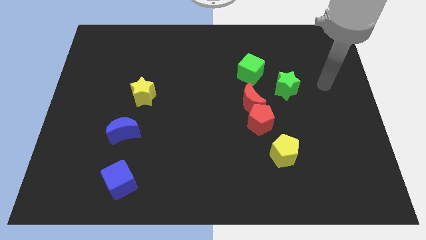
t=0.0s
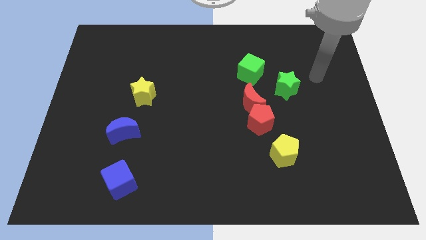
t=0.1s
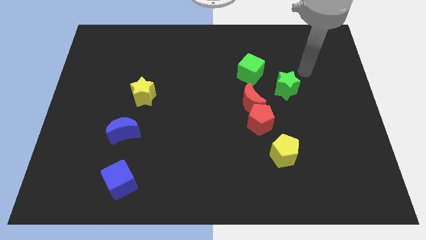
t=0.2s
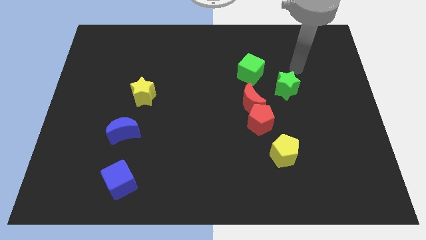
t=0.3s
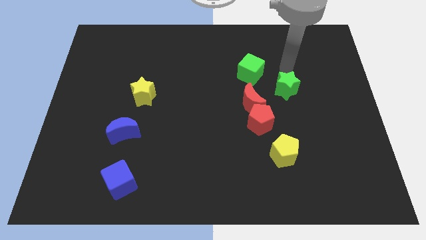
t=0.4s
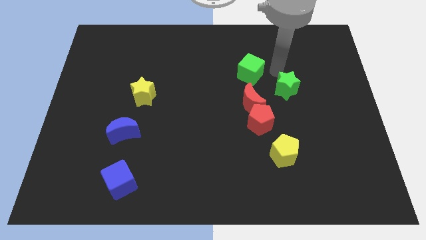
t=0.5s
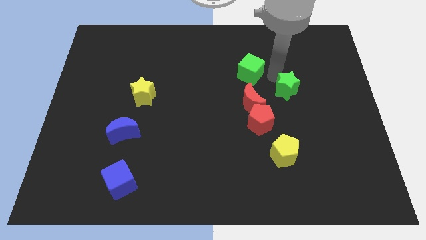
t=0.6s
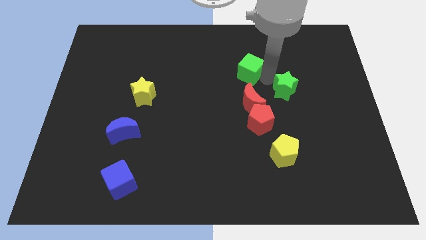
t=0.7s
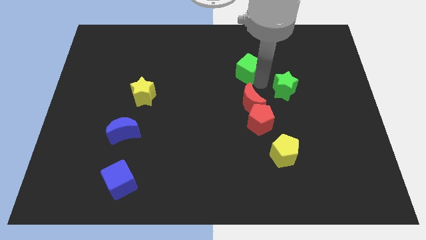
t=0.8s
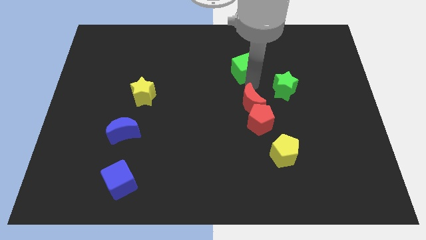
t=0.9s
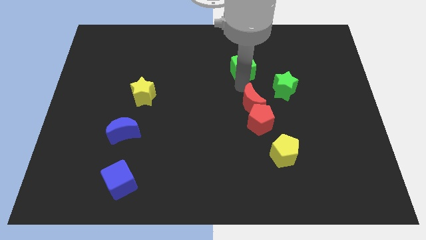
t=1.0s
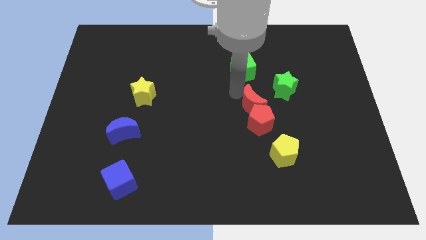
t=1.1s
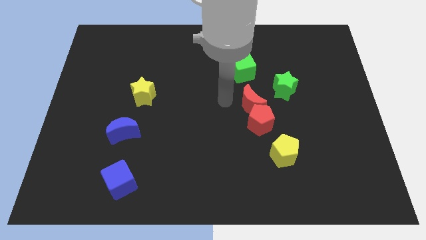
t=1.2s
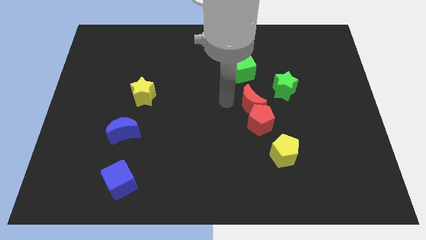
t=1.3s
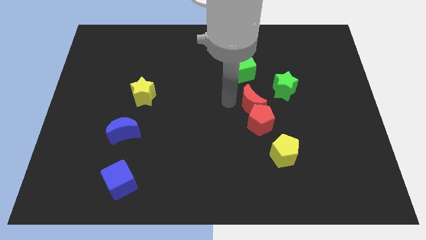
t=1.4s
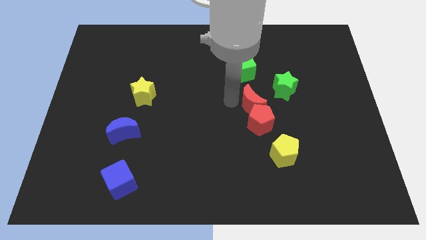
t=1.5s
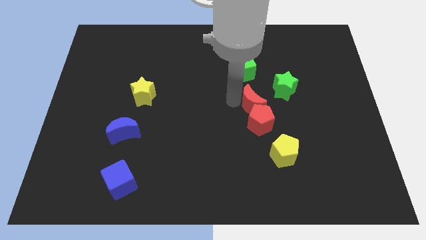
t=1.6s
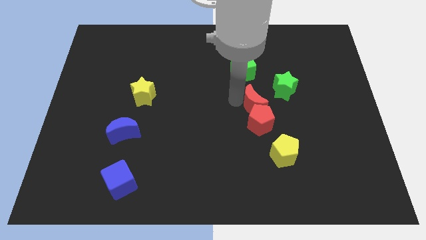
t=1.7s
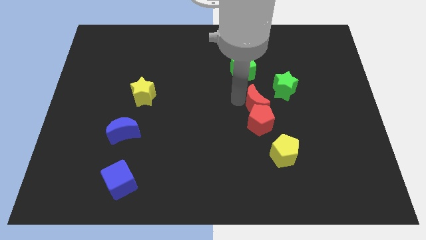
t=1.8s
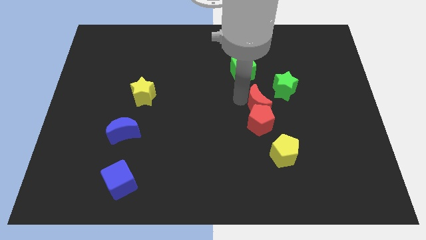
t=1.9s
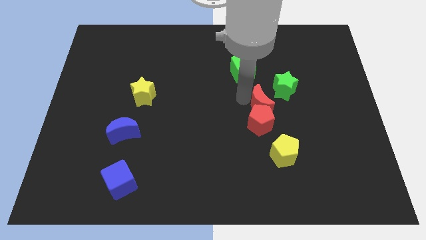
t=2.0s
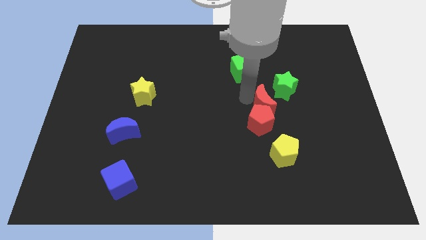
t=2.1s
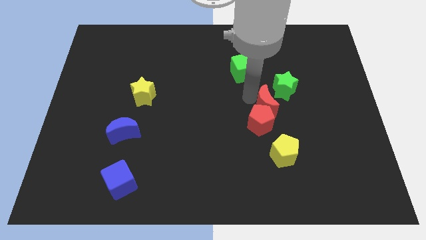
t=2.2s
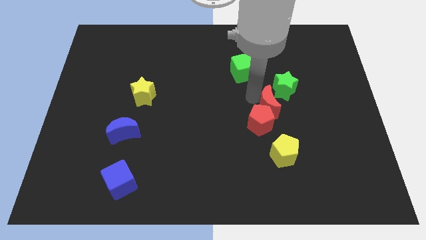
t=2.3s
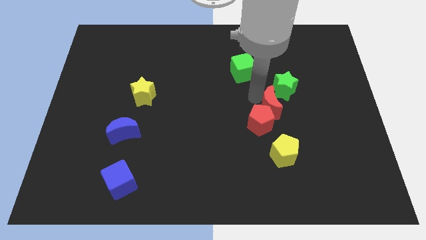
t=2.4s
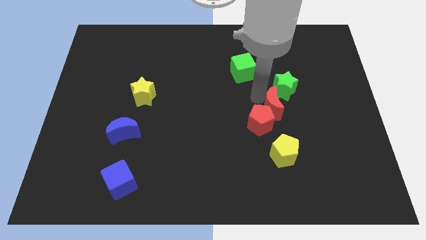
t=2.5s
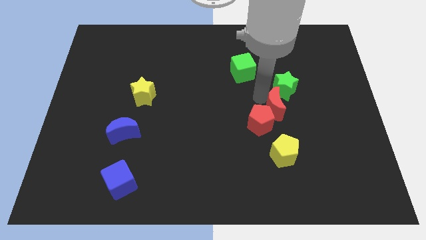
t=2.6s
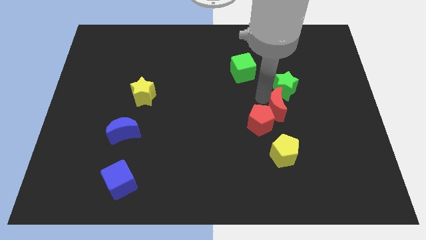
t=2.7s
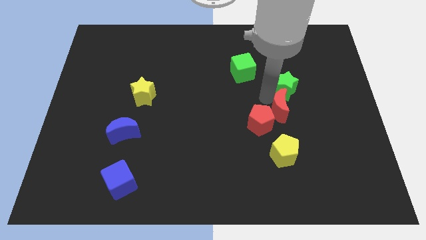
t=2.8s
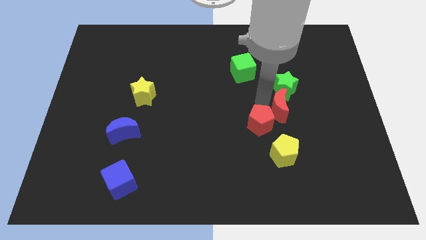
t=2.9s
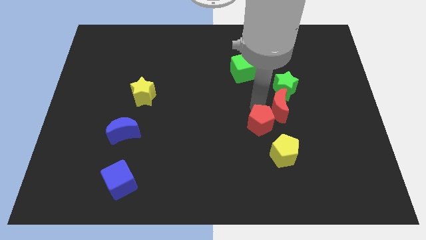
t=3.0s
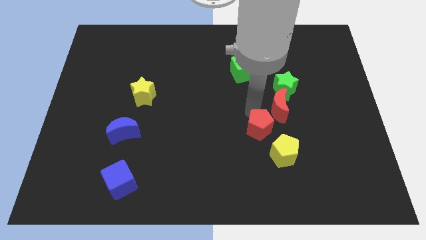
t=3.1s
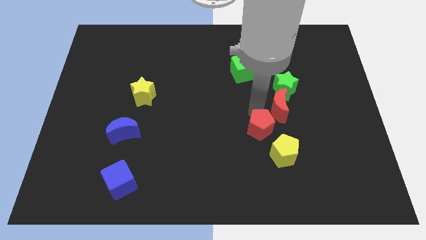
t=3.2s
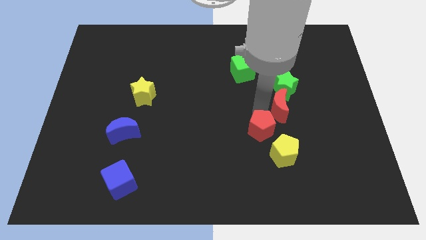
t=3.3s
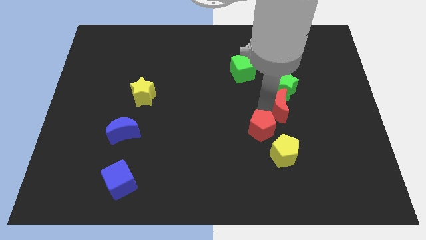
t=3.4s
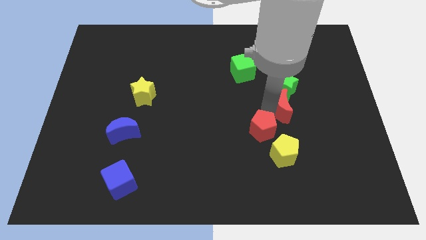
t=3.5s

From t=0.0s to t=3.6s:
slide the red moon to the right a little

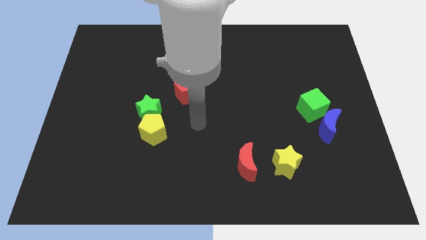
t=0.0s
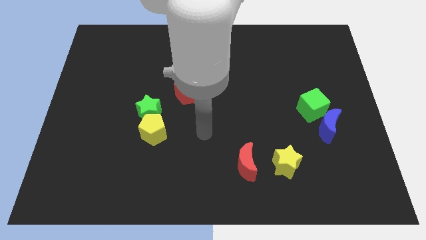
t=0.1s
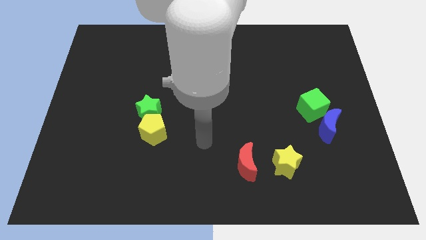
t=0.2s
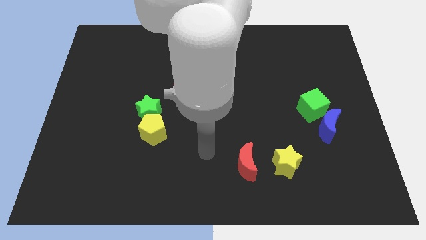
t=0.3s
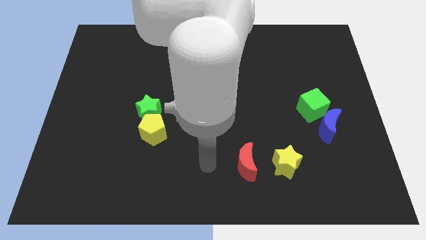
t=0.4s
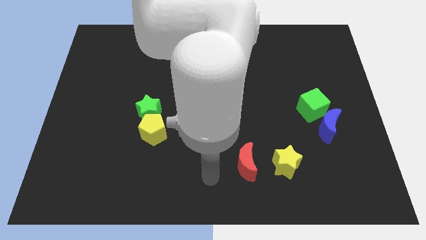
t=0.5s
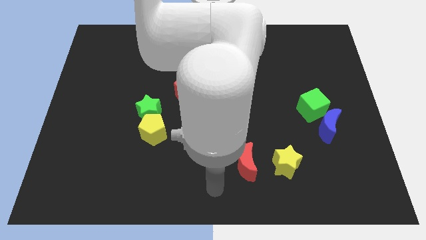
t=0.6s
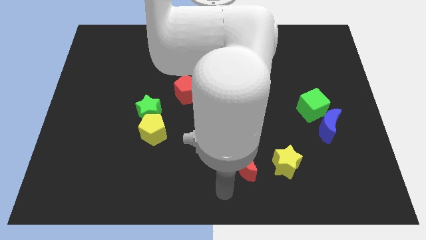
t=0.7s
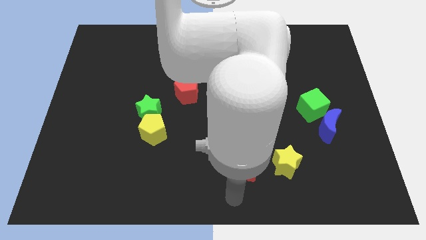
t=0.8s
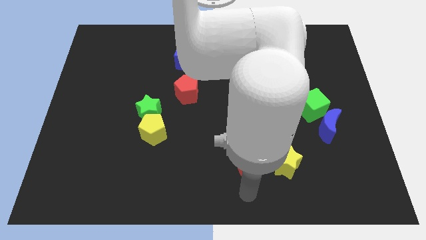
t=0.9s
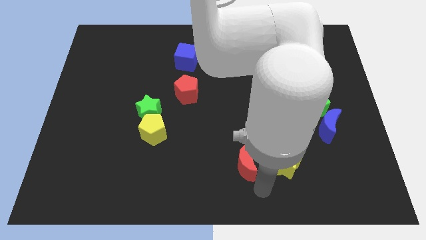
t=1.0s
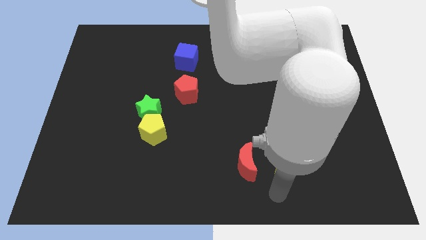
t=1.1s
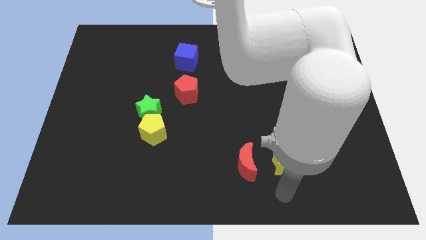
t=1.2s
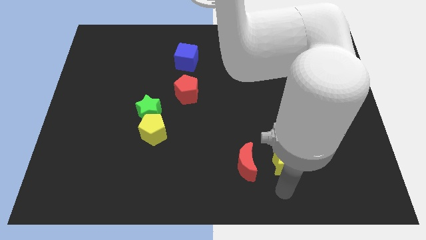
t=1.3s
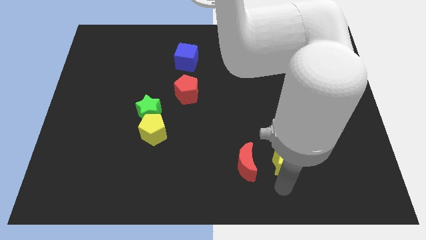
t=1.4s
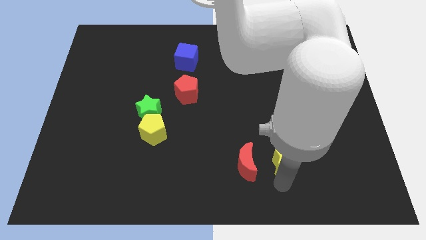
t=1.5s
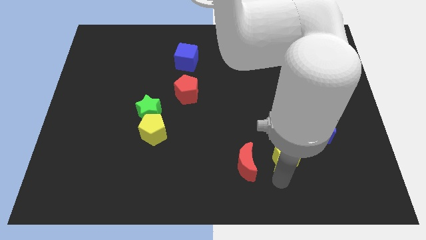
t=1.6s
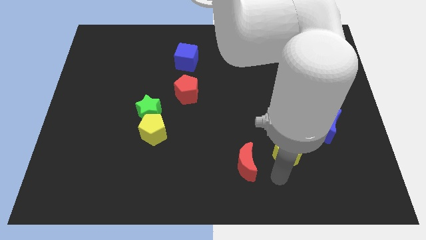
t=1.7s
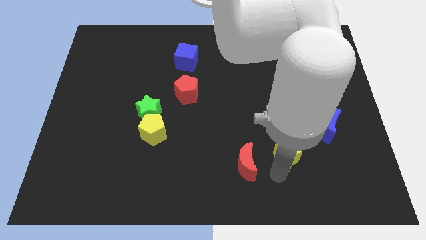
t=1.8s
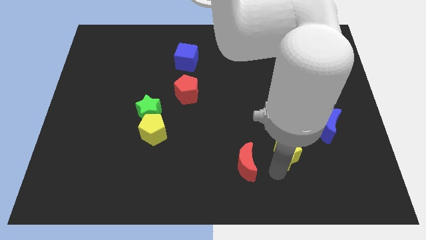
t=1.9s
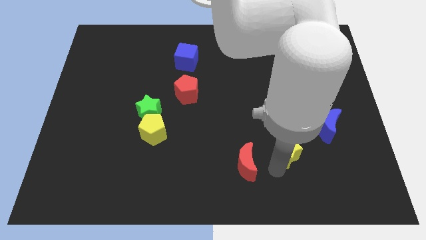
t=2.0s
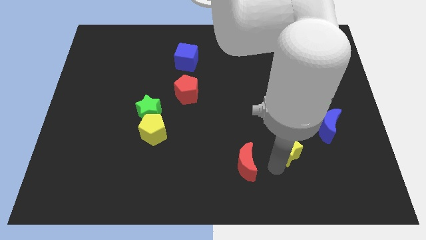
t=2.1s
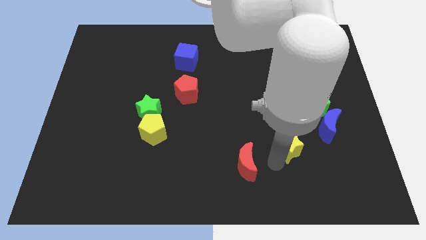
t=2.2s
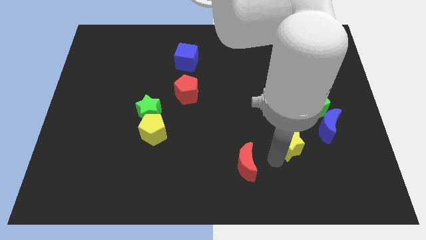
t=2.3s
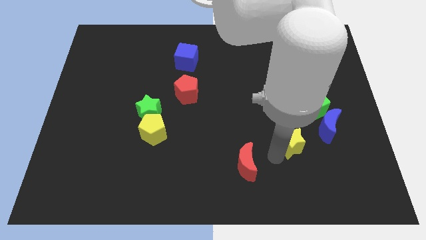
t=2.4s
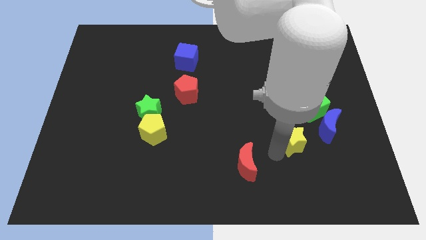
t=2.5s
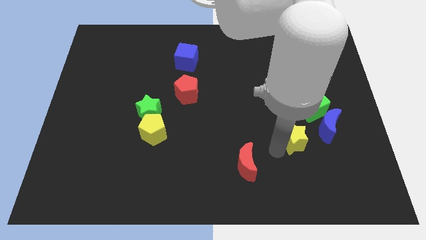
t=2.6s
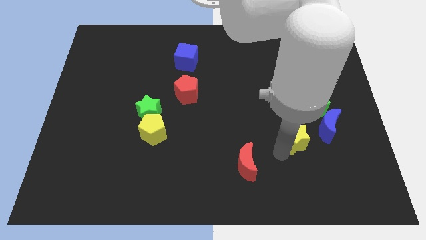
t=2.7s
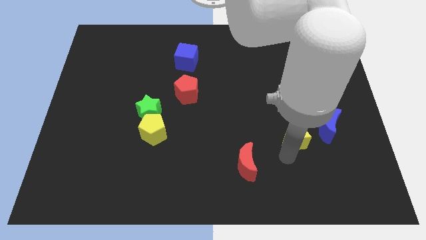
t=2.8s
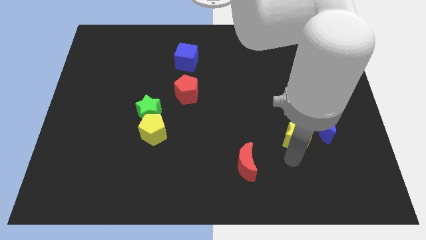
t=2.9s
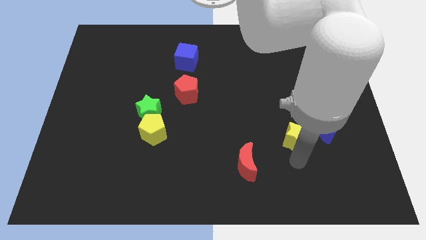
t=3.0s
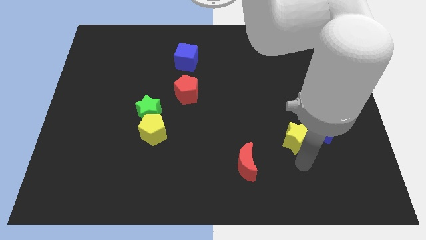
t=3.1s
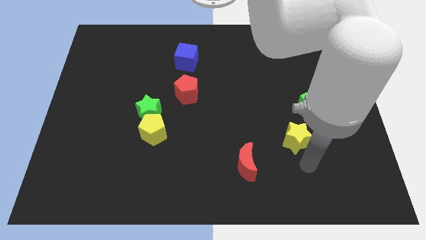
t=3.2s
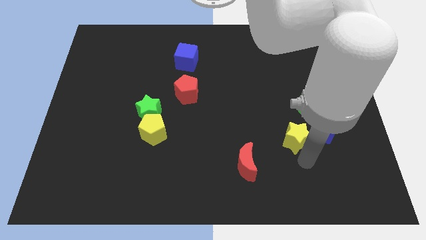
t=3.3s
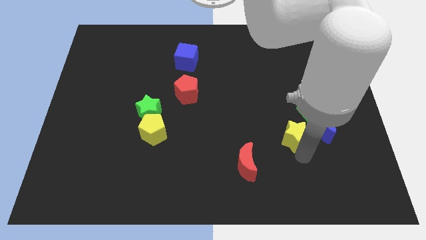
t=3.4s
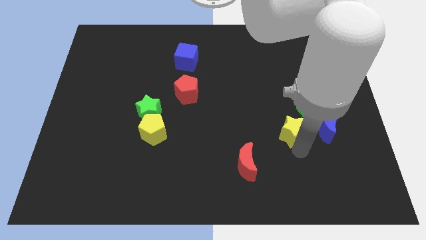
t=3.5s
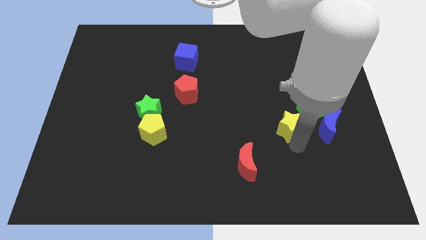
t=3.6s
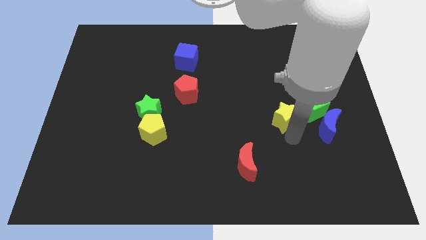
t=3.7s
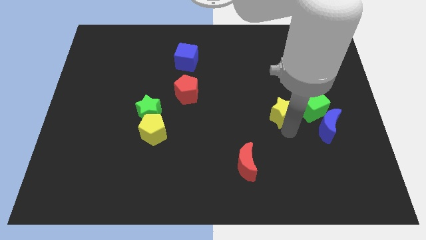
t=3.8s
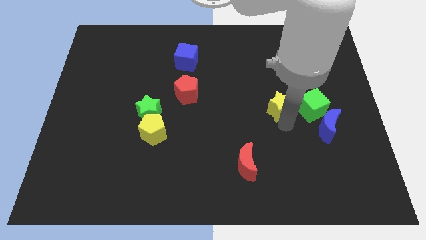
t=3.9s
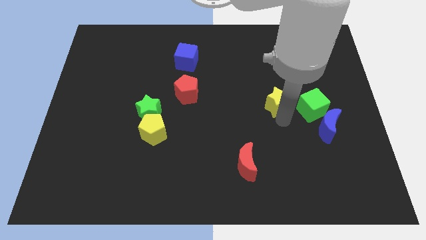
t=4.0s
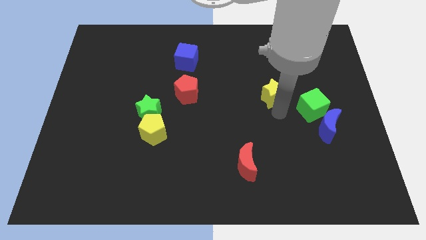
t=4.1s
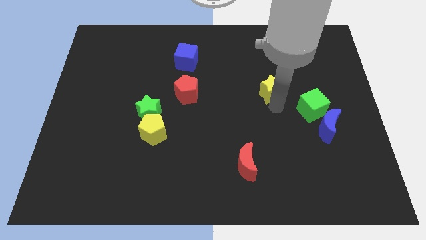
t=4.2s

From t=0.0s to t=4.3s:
move the yellow star upwards

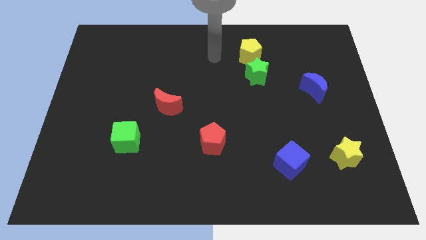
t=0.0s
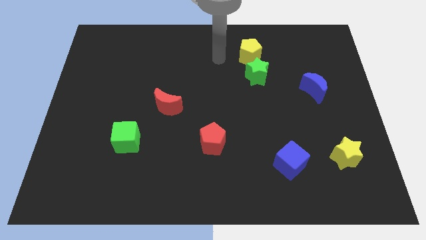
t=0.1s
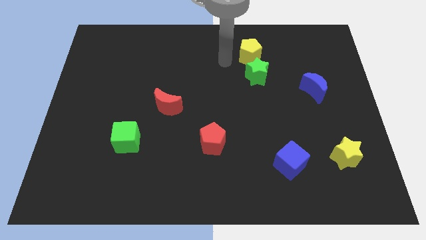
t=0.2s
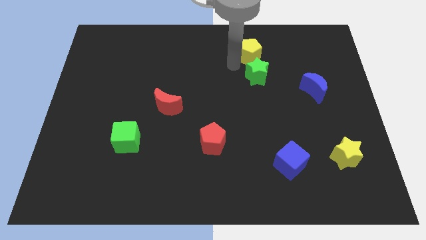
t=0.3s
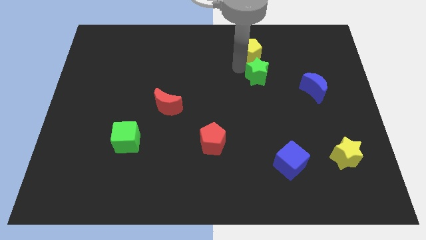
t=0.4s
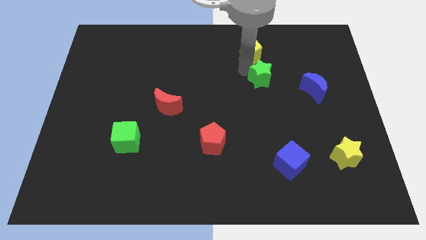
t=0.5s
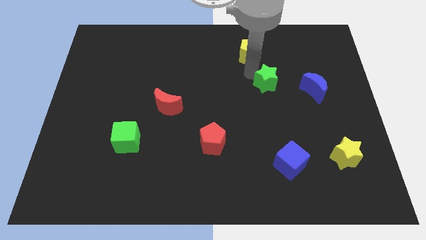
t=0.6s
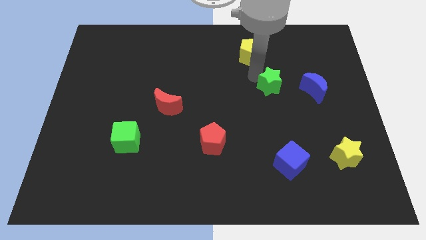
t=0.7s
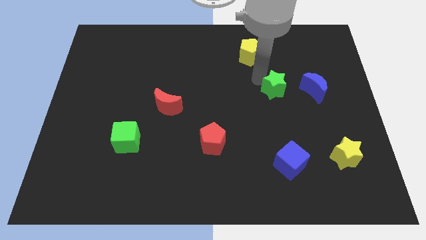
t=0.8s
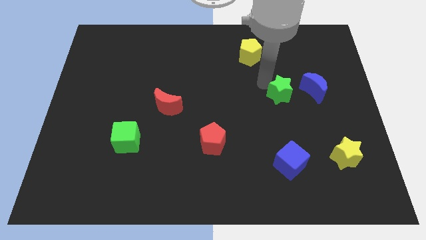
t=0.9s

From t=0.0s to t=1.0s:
slightly push the green star downwards and to the right diagonally
